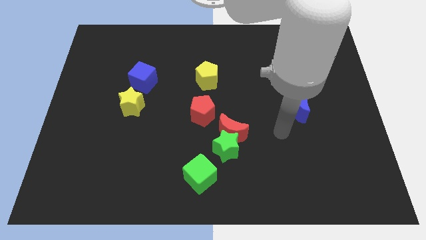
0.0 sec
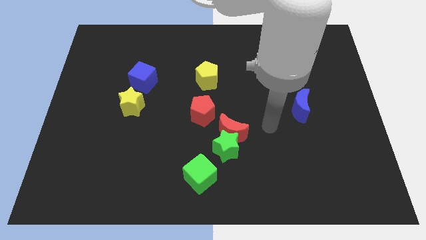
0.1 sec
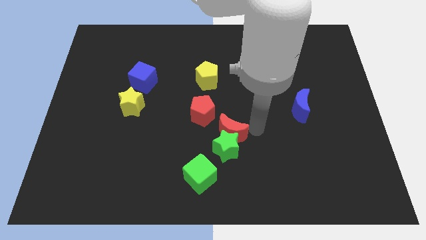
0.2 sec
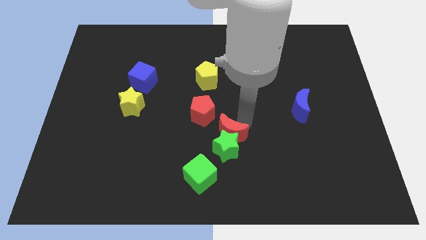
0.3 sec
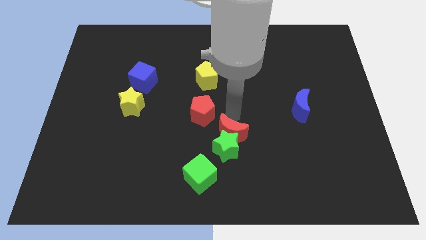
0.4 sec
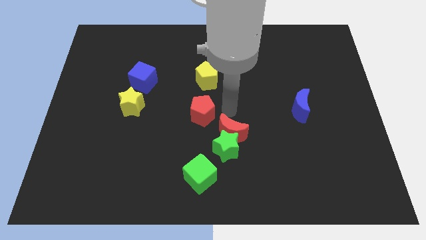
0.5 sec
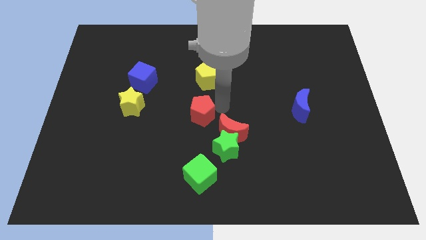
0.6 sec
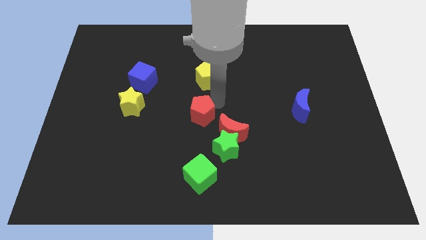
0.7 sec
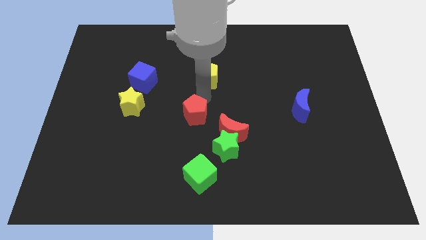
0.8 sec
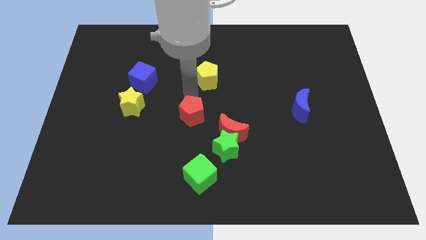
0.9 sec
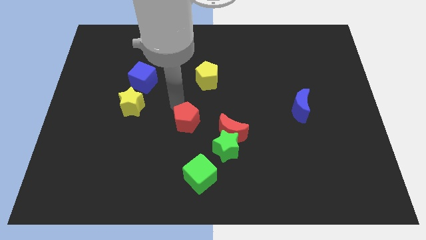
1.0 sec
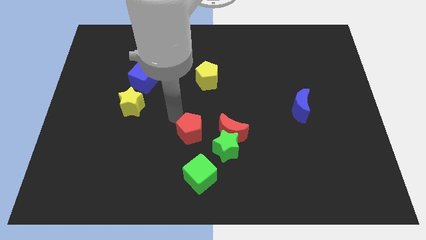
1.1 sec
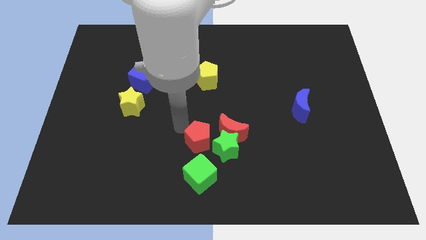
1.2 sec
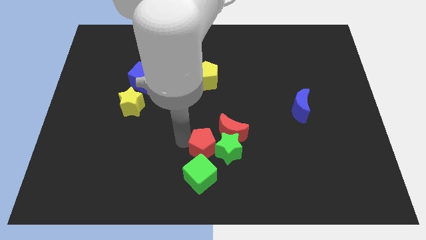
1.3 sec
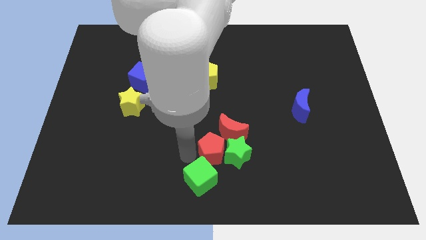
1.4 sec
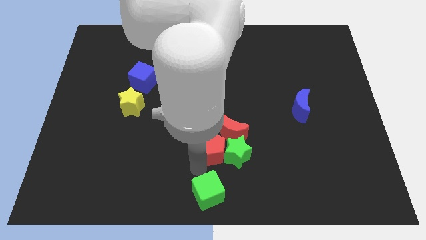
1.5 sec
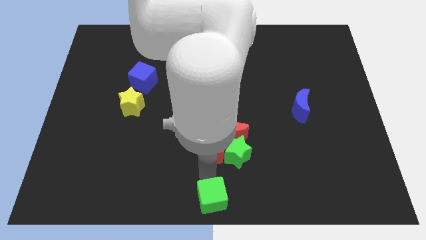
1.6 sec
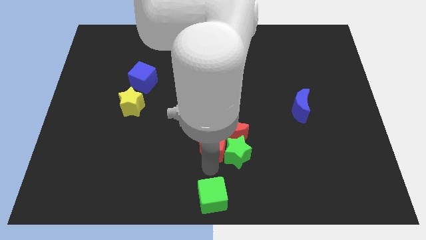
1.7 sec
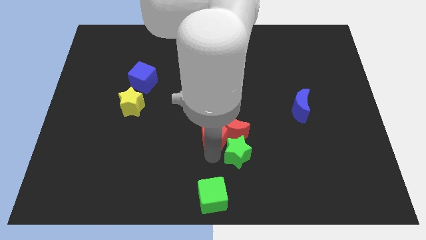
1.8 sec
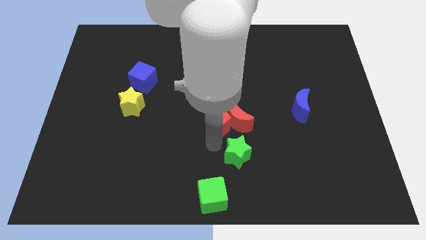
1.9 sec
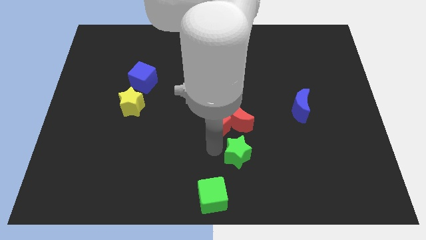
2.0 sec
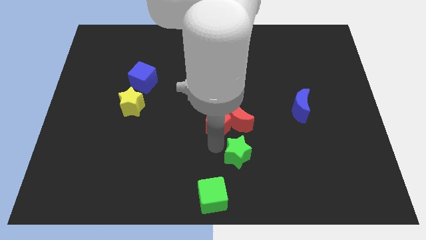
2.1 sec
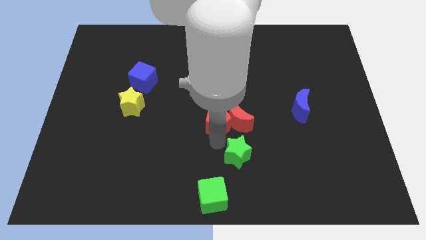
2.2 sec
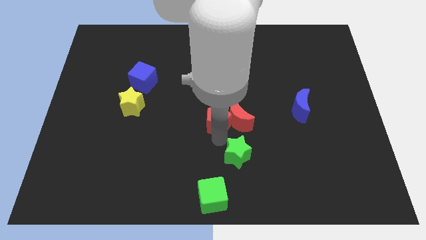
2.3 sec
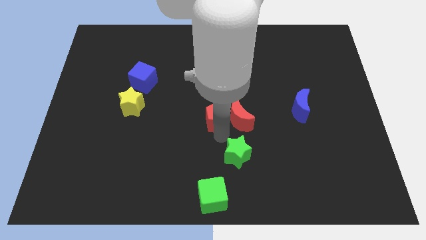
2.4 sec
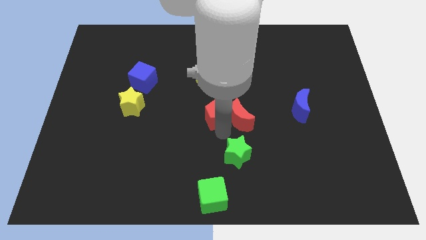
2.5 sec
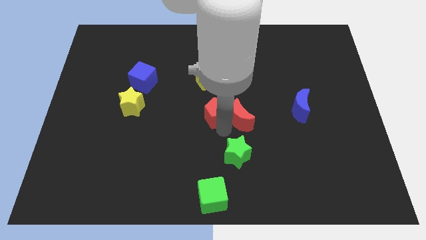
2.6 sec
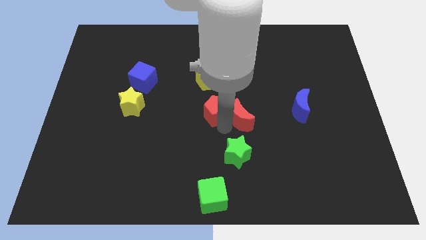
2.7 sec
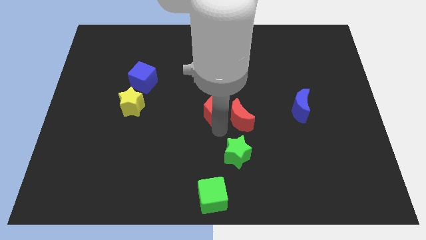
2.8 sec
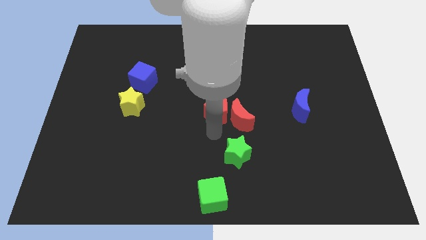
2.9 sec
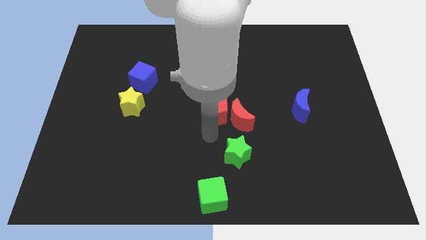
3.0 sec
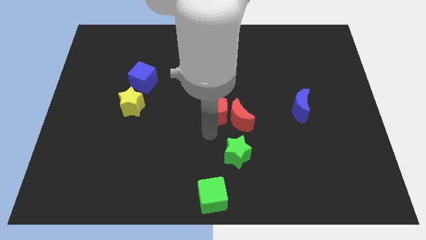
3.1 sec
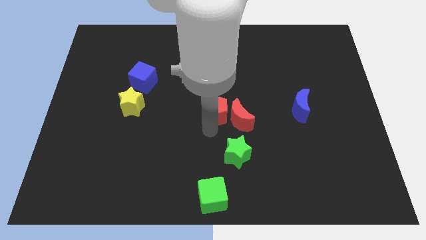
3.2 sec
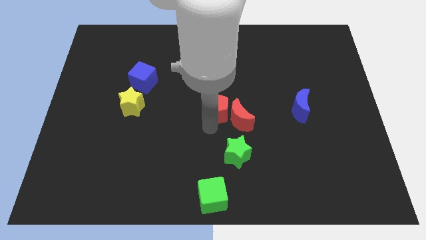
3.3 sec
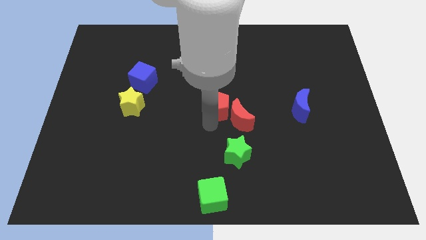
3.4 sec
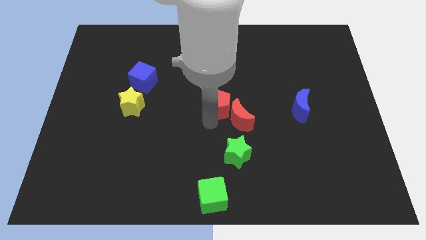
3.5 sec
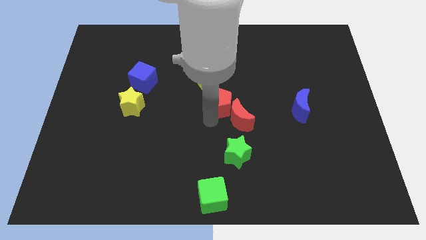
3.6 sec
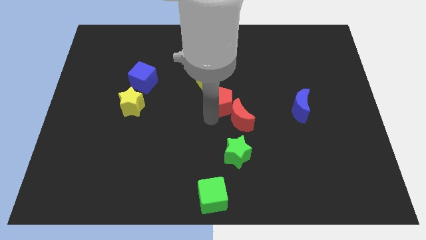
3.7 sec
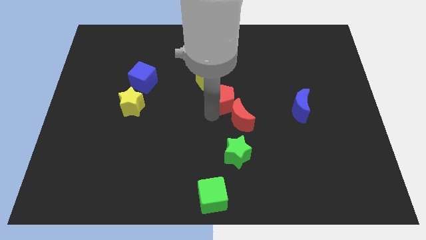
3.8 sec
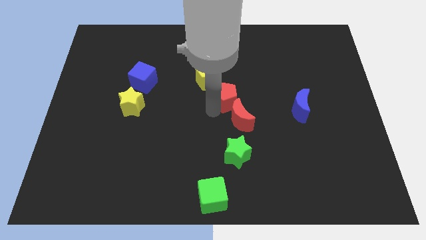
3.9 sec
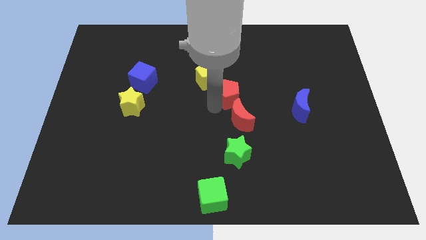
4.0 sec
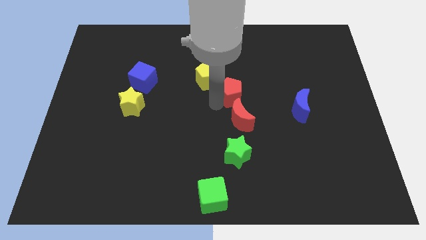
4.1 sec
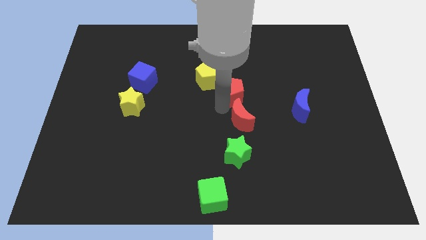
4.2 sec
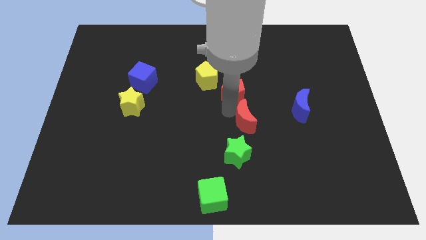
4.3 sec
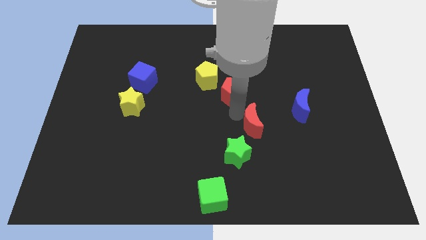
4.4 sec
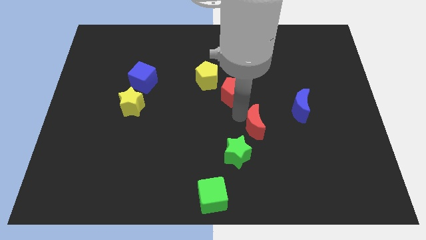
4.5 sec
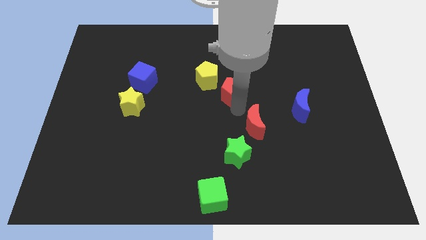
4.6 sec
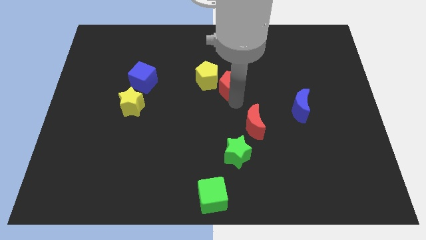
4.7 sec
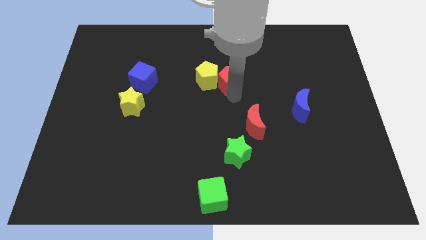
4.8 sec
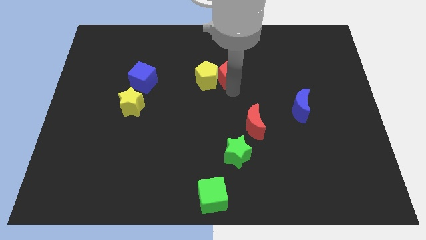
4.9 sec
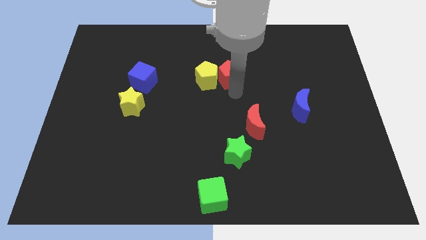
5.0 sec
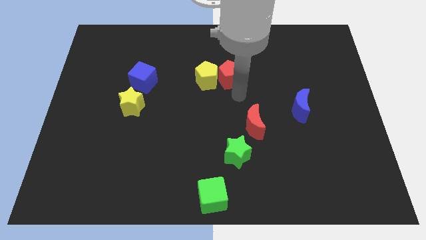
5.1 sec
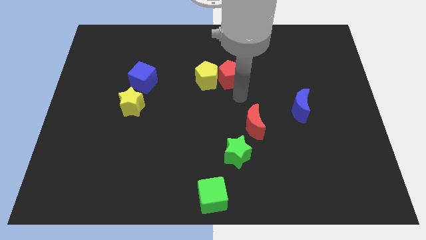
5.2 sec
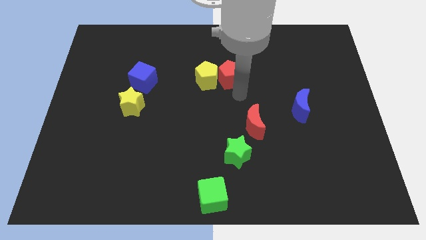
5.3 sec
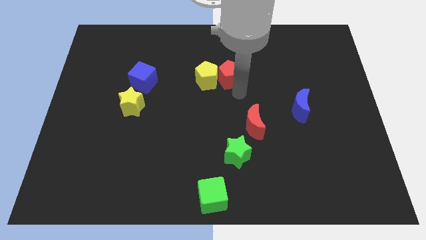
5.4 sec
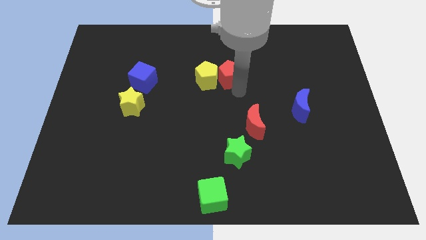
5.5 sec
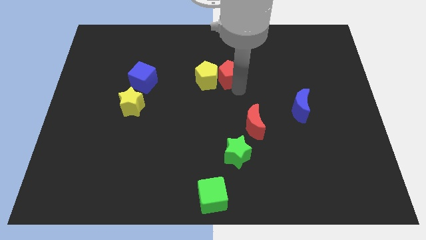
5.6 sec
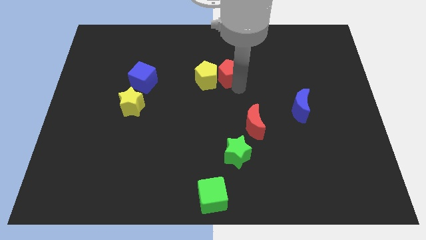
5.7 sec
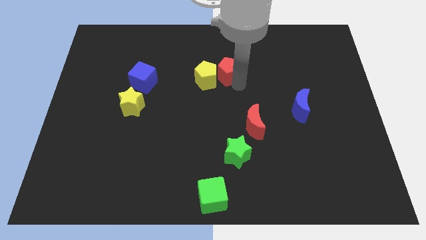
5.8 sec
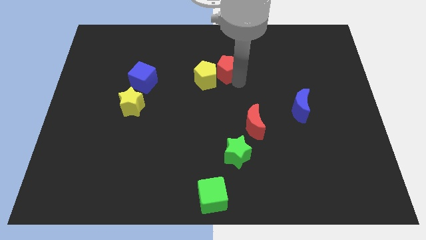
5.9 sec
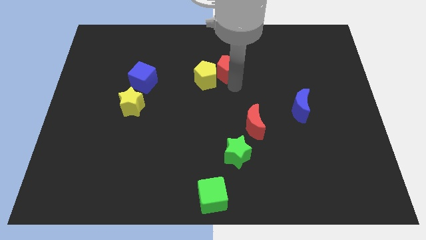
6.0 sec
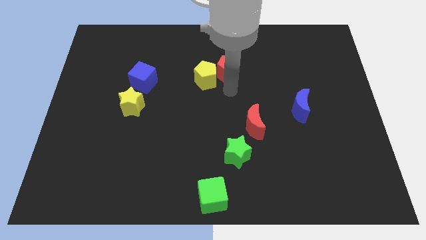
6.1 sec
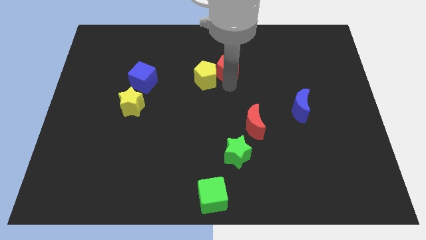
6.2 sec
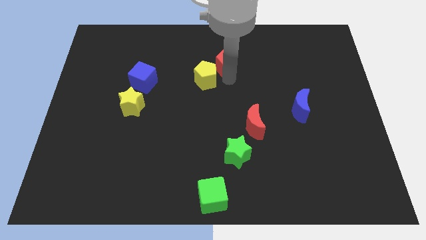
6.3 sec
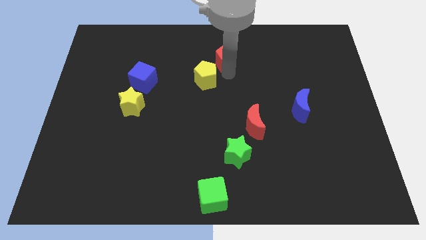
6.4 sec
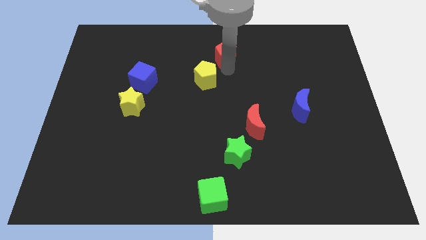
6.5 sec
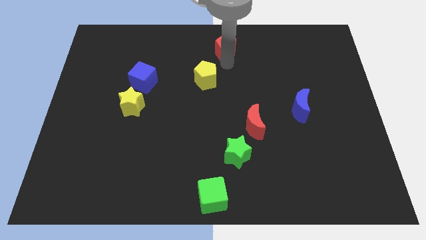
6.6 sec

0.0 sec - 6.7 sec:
move the red pentagon to the towards your base
